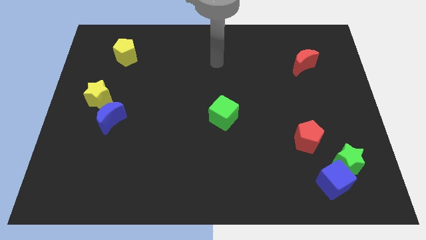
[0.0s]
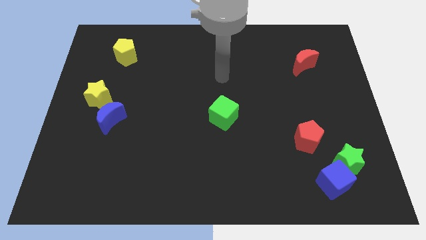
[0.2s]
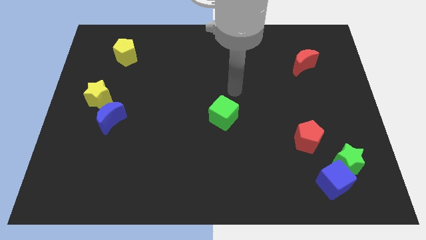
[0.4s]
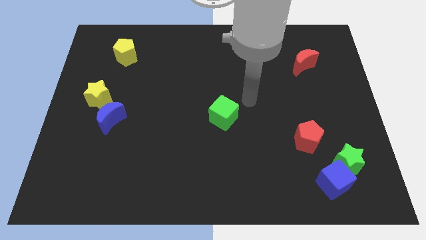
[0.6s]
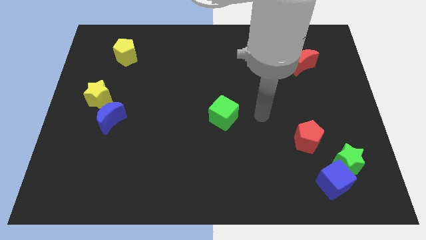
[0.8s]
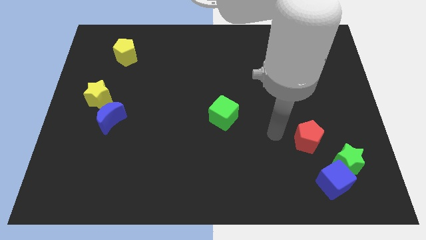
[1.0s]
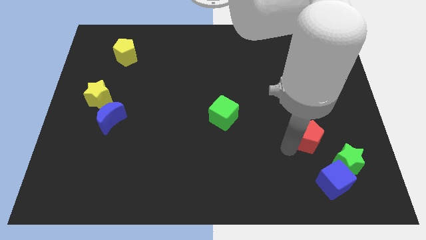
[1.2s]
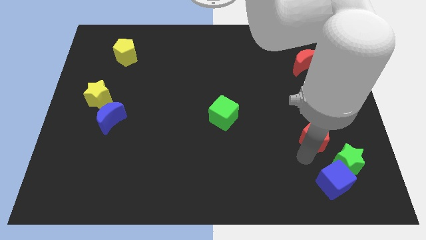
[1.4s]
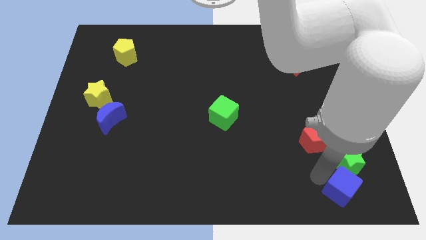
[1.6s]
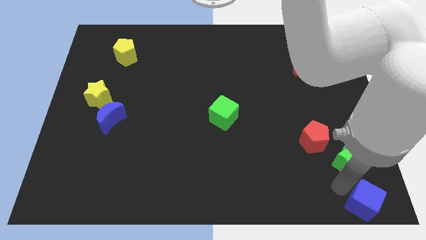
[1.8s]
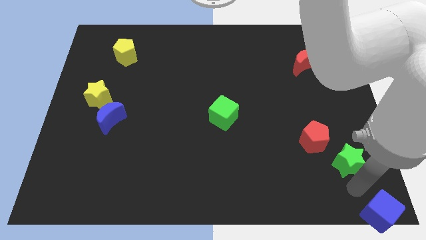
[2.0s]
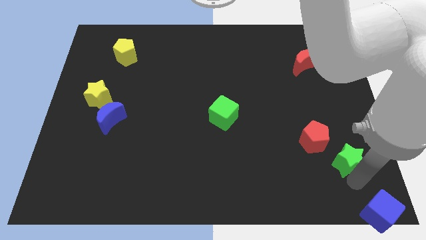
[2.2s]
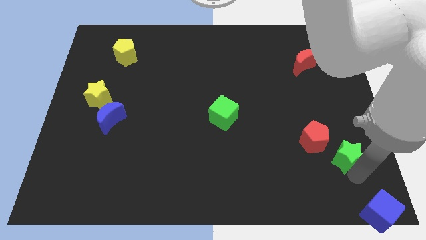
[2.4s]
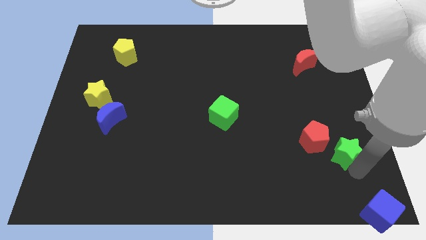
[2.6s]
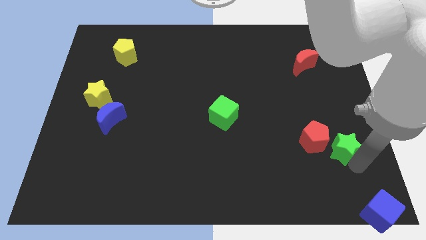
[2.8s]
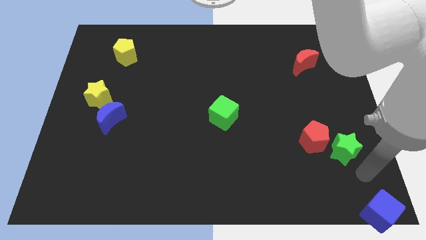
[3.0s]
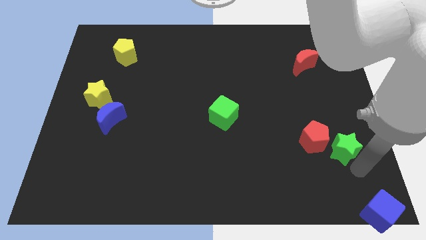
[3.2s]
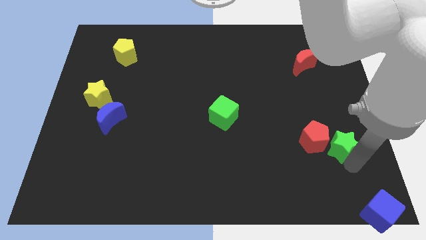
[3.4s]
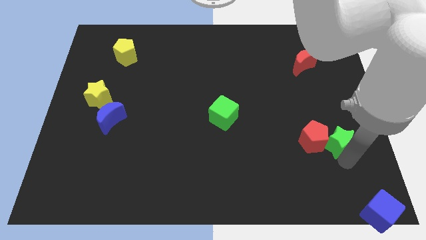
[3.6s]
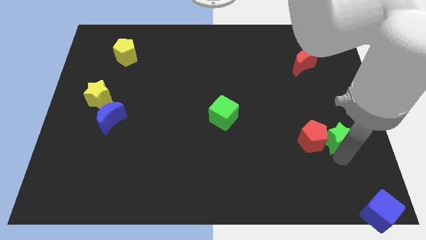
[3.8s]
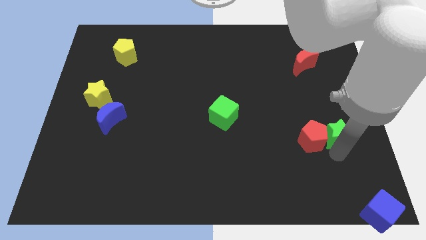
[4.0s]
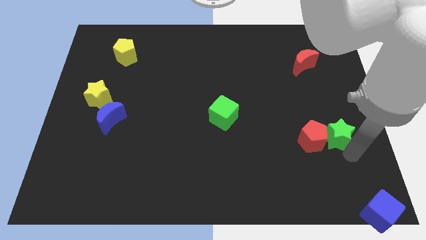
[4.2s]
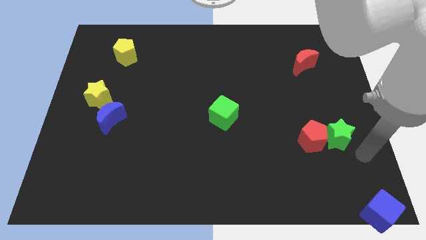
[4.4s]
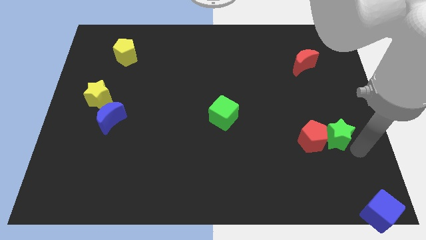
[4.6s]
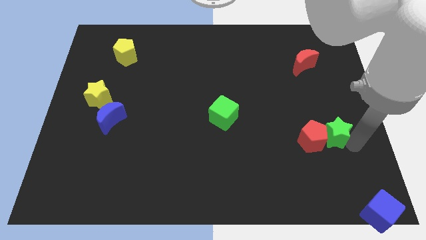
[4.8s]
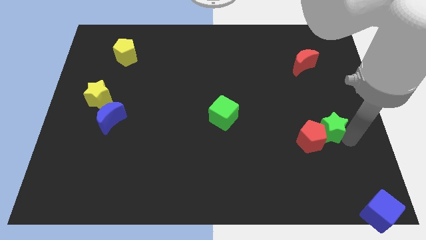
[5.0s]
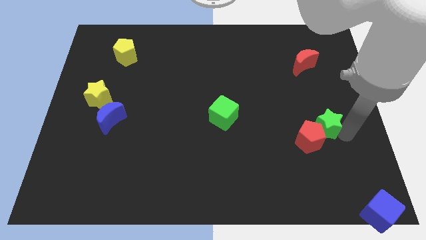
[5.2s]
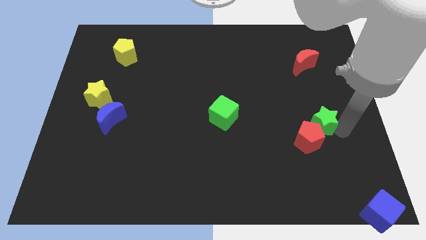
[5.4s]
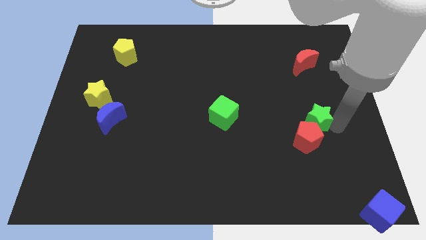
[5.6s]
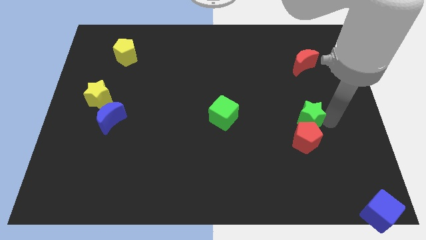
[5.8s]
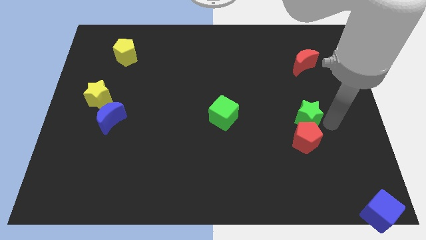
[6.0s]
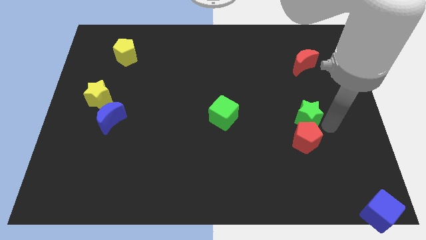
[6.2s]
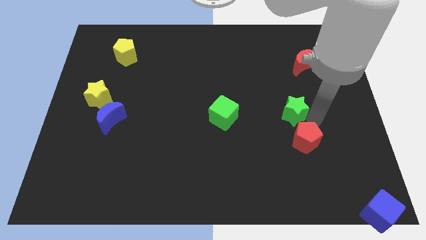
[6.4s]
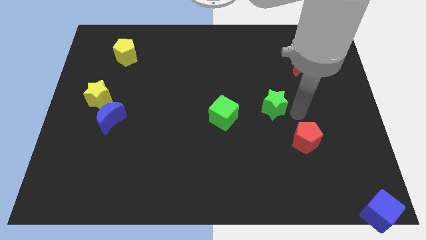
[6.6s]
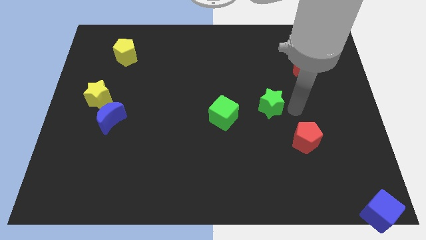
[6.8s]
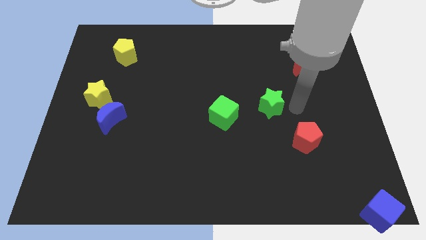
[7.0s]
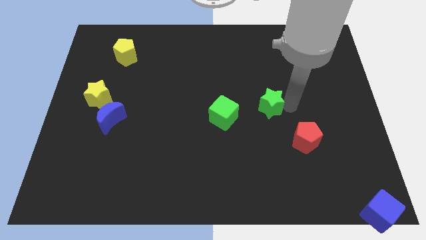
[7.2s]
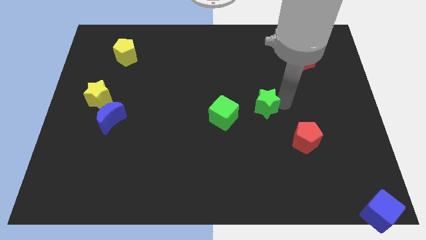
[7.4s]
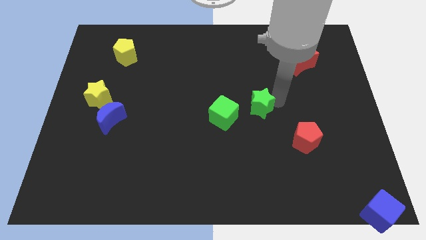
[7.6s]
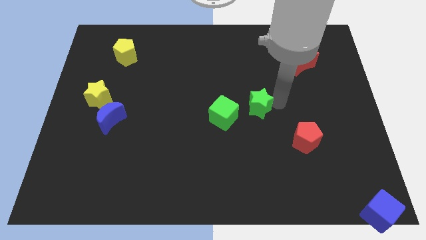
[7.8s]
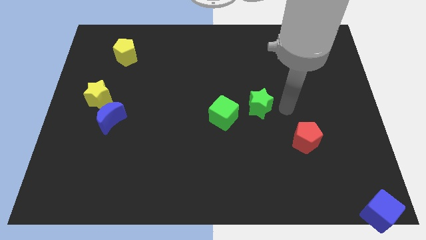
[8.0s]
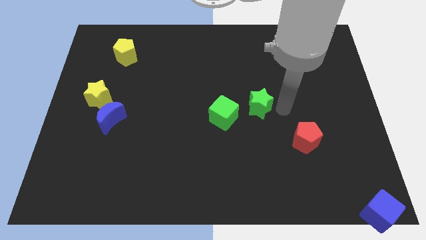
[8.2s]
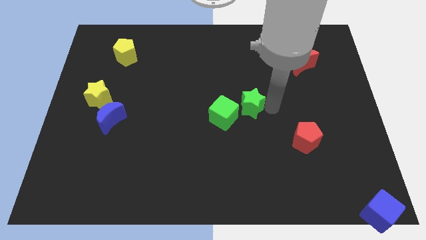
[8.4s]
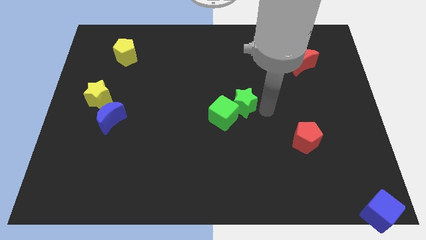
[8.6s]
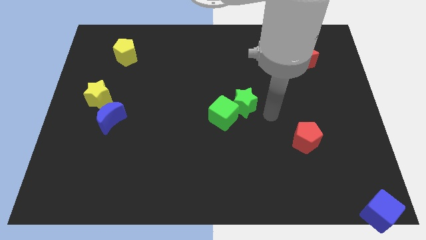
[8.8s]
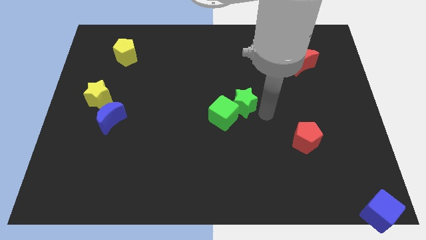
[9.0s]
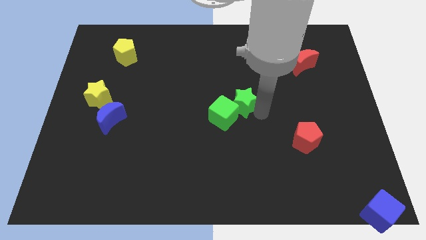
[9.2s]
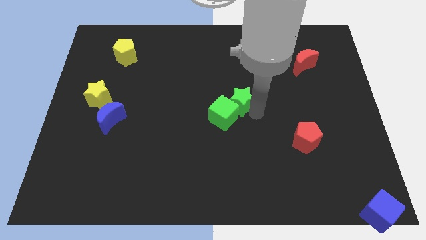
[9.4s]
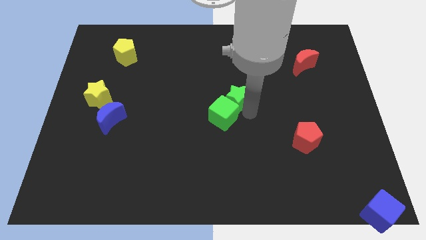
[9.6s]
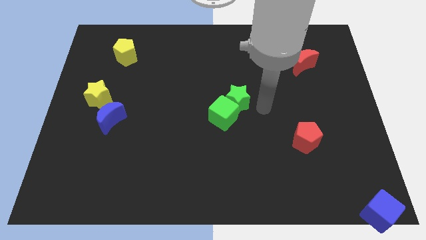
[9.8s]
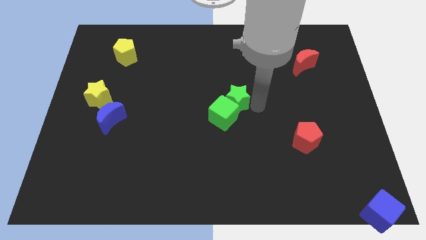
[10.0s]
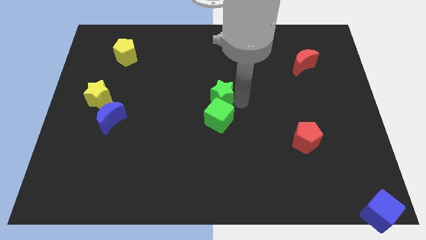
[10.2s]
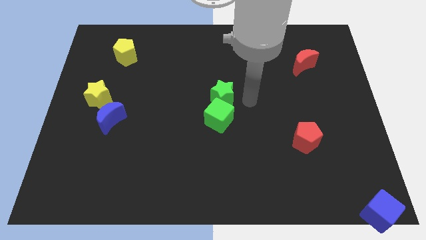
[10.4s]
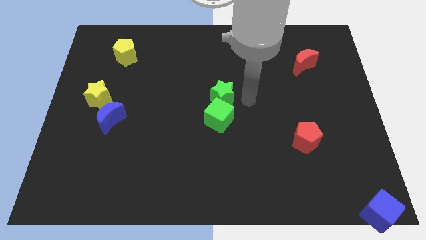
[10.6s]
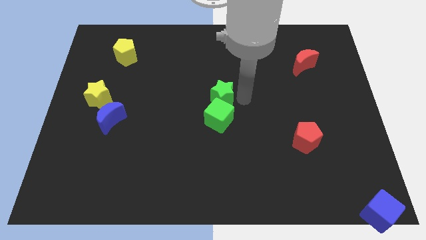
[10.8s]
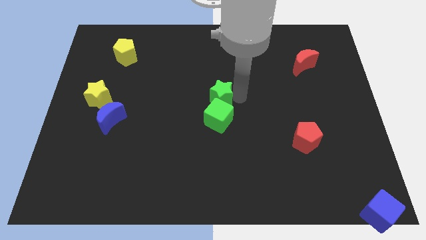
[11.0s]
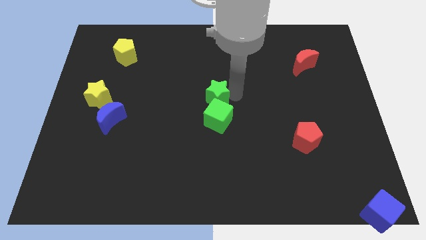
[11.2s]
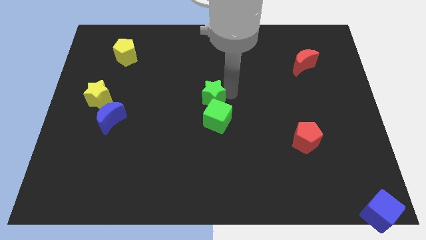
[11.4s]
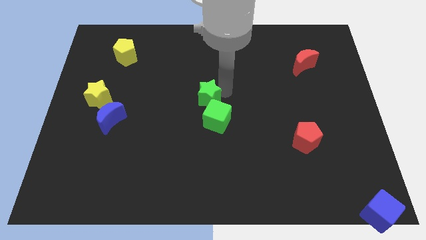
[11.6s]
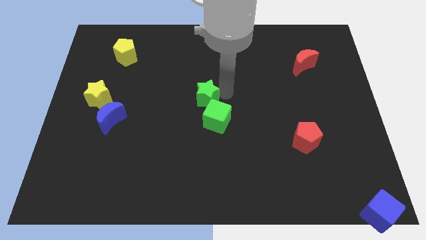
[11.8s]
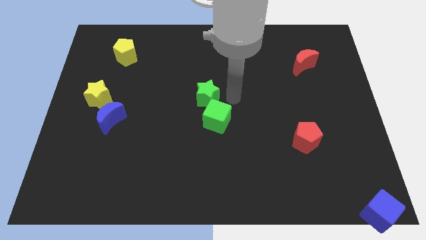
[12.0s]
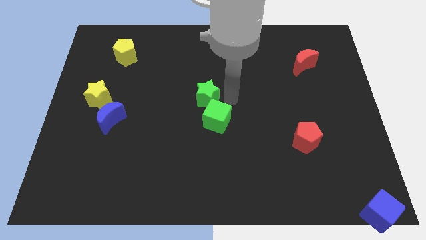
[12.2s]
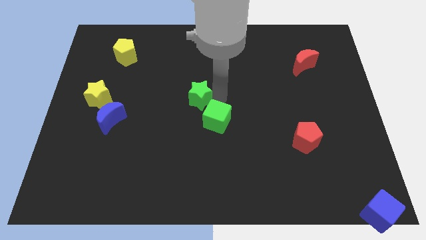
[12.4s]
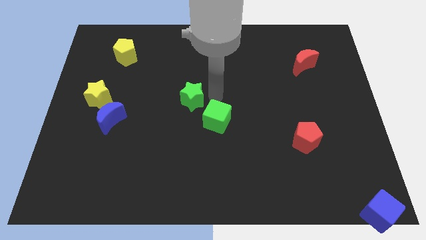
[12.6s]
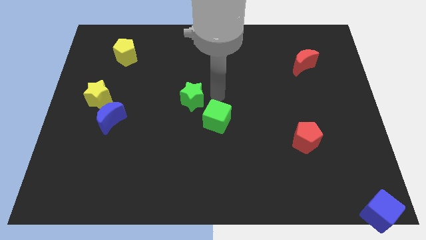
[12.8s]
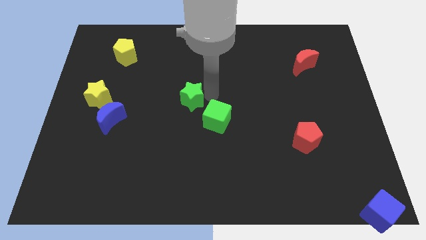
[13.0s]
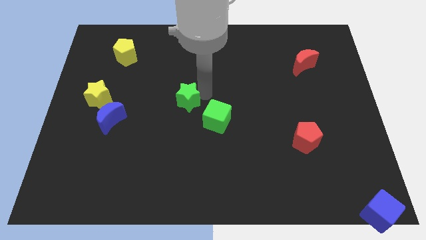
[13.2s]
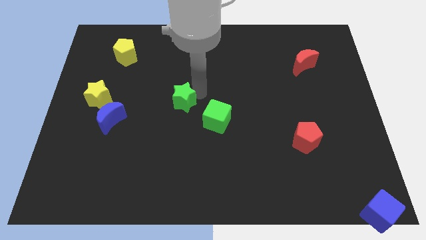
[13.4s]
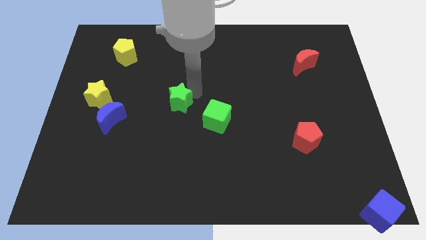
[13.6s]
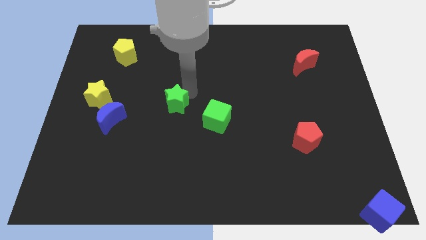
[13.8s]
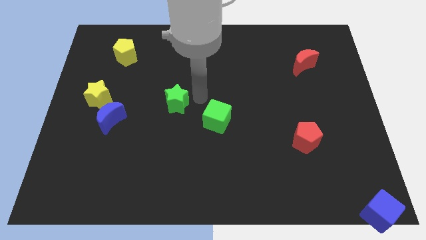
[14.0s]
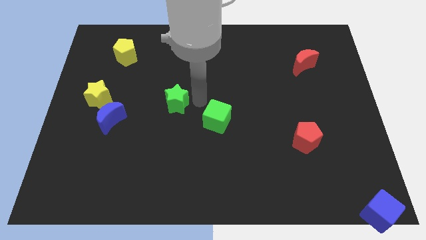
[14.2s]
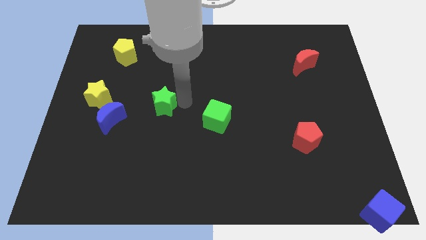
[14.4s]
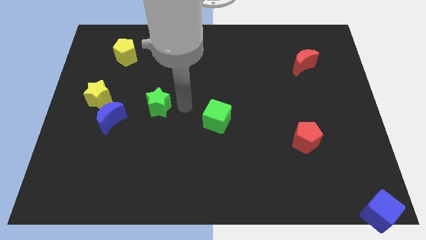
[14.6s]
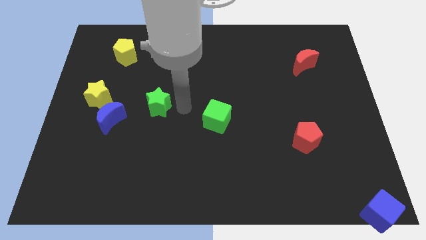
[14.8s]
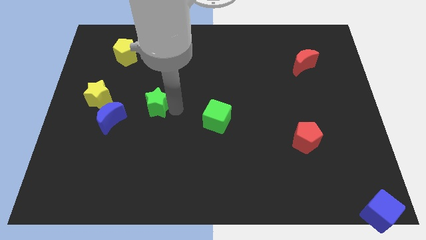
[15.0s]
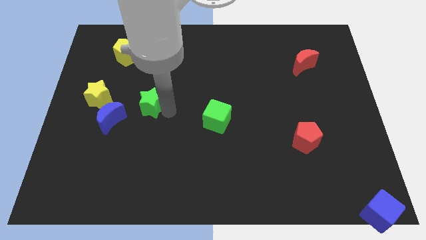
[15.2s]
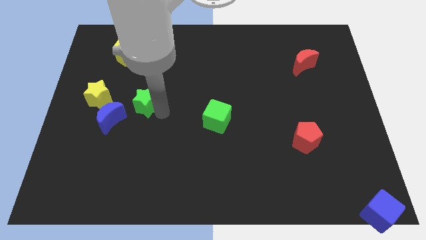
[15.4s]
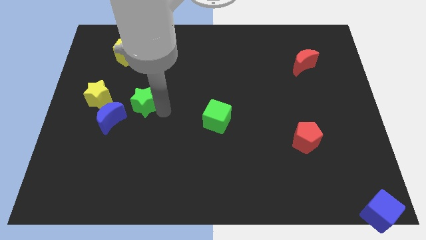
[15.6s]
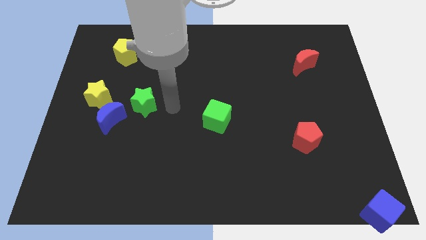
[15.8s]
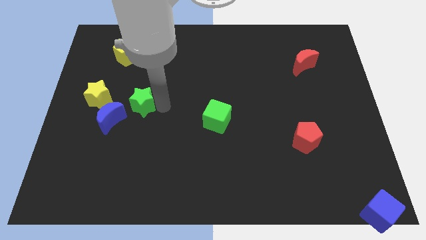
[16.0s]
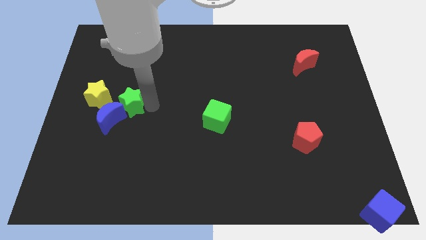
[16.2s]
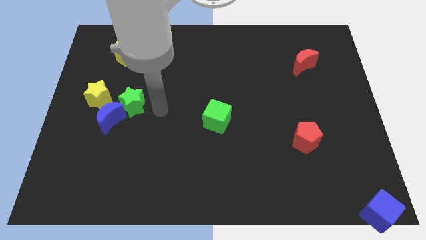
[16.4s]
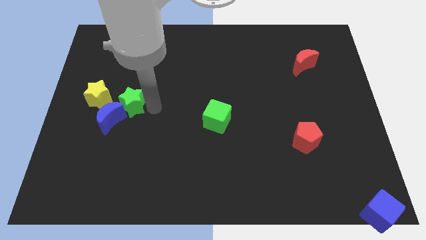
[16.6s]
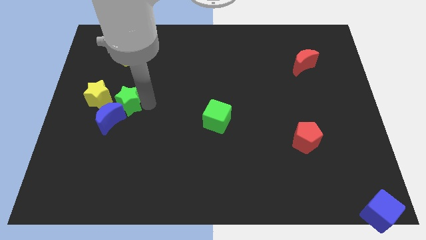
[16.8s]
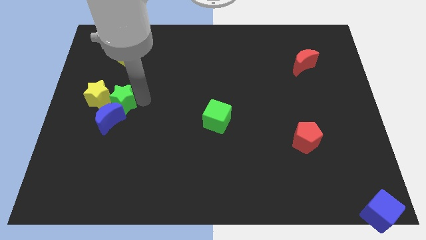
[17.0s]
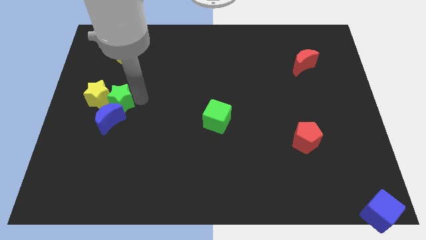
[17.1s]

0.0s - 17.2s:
push the green star next to the yellow star
